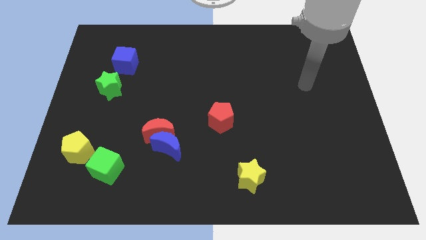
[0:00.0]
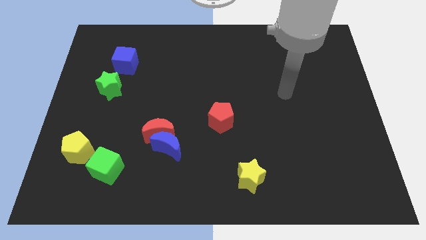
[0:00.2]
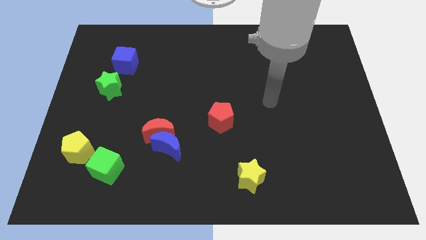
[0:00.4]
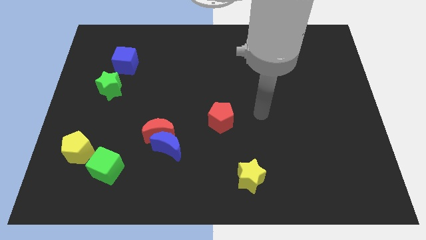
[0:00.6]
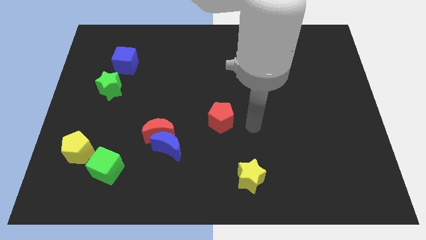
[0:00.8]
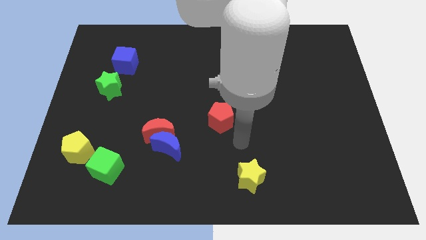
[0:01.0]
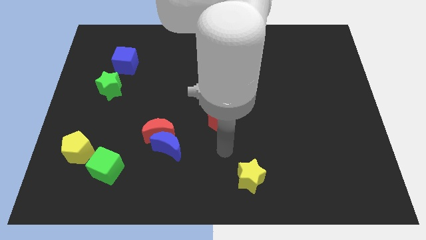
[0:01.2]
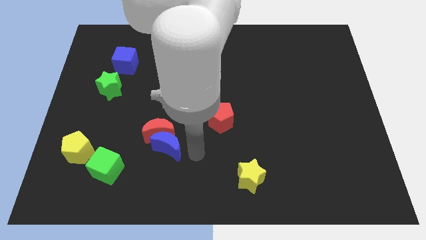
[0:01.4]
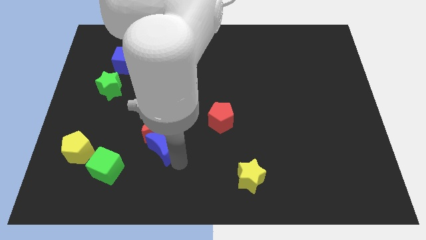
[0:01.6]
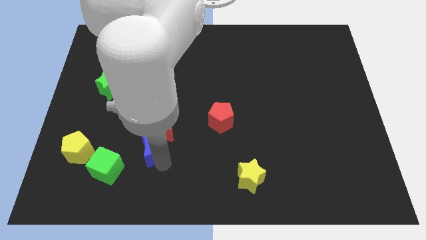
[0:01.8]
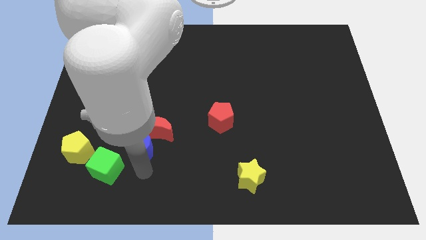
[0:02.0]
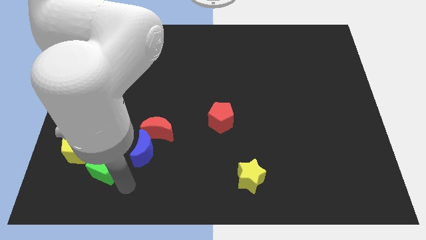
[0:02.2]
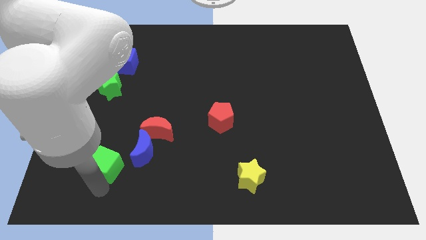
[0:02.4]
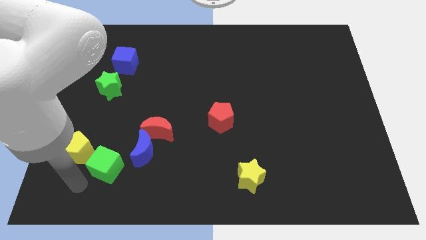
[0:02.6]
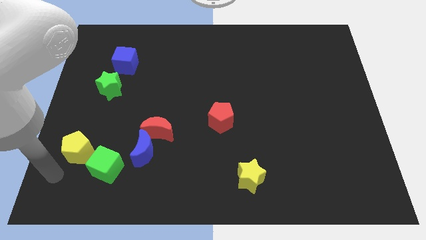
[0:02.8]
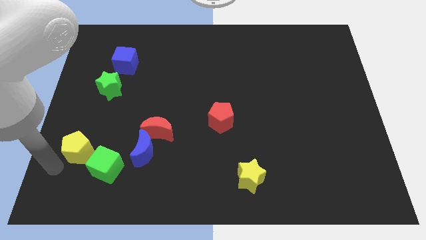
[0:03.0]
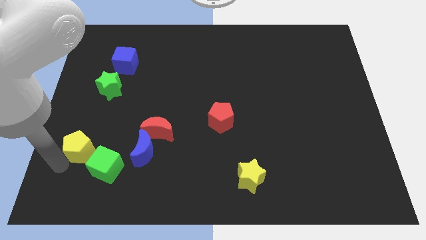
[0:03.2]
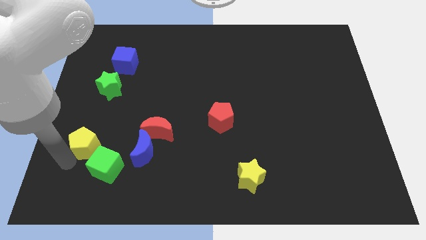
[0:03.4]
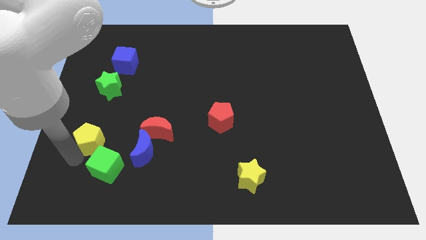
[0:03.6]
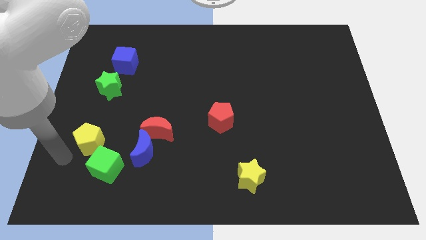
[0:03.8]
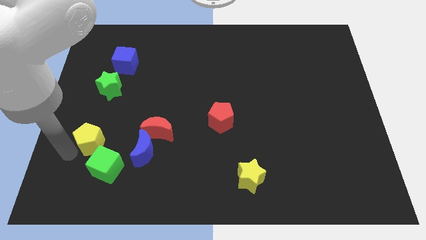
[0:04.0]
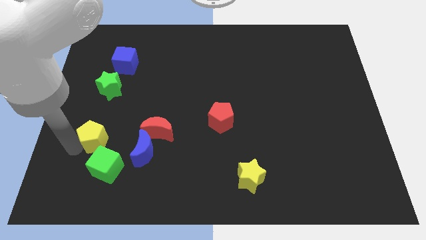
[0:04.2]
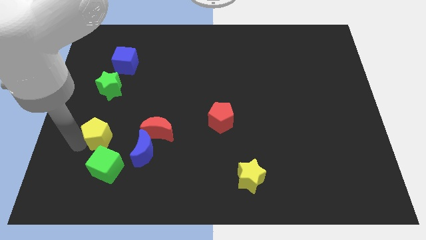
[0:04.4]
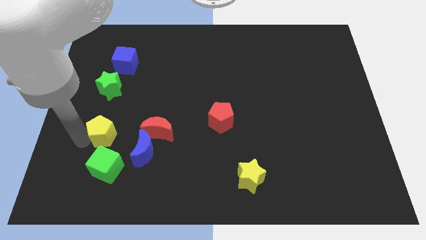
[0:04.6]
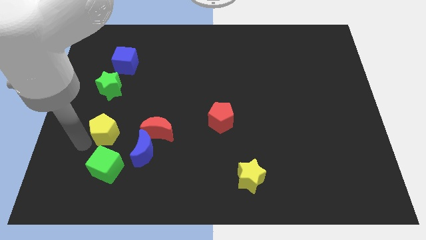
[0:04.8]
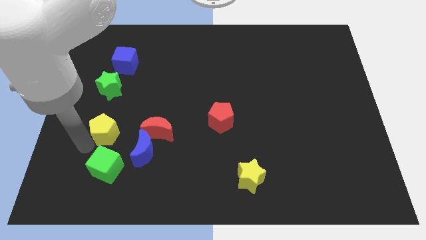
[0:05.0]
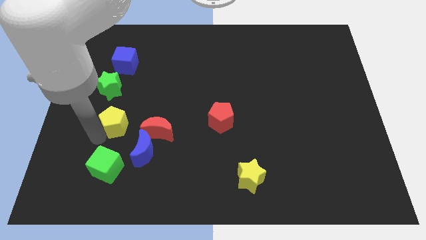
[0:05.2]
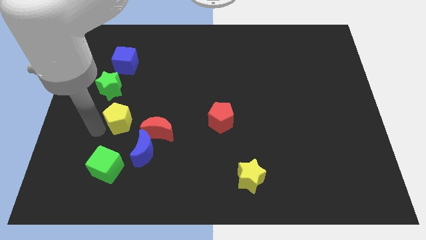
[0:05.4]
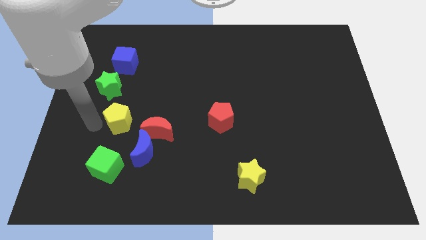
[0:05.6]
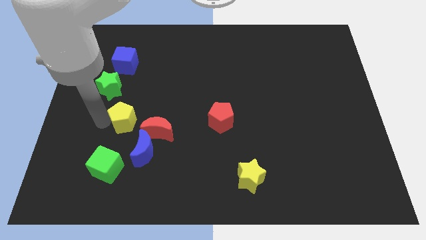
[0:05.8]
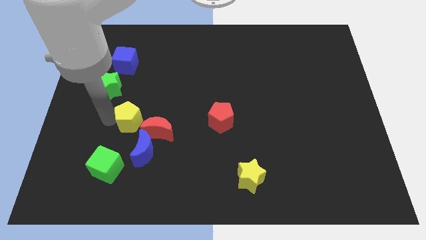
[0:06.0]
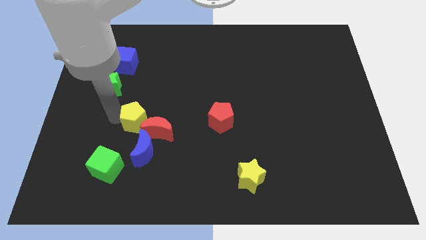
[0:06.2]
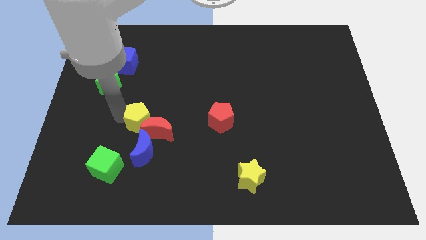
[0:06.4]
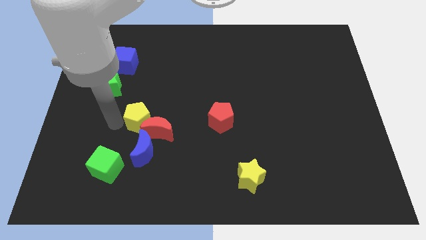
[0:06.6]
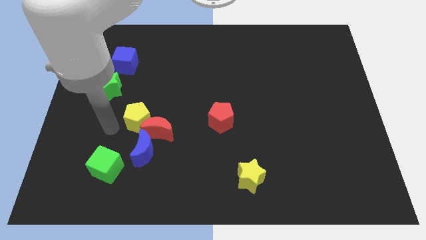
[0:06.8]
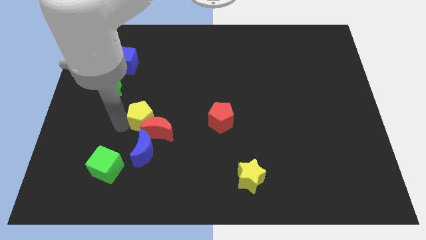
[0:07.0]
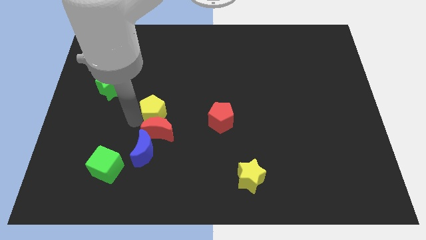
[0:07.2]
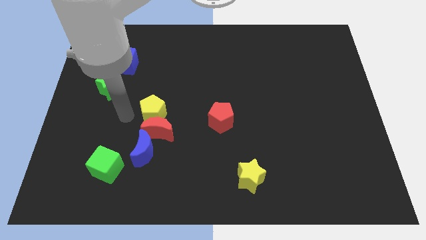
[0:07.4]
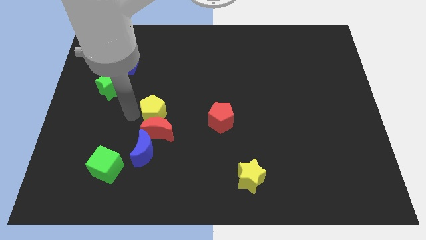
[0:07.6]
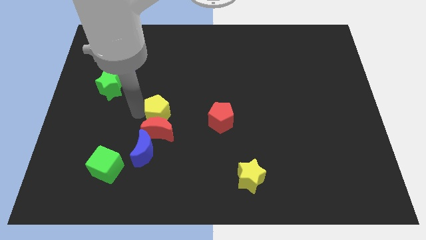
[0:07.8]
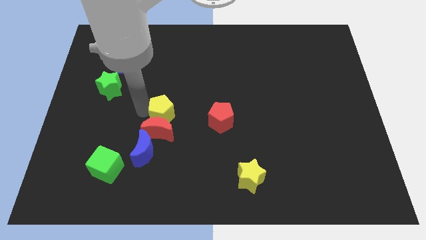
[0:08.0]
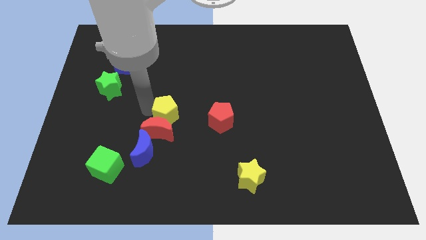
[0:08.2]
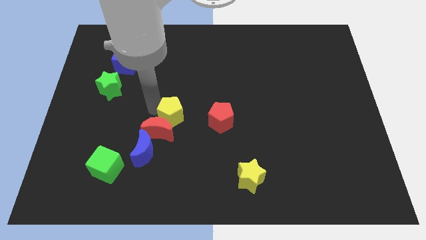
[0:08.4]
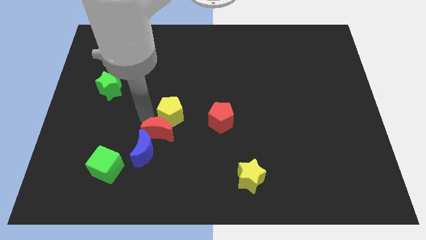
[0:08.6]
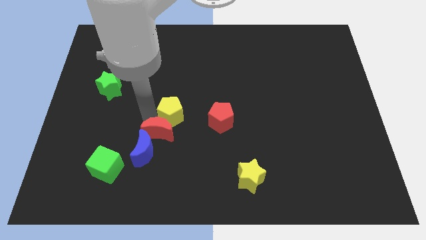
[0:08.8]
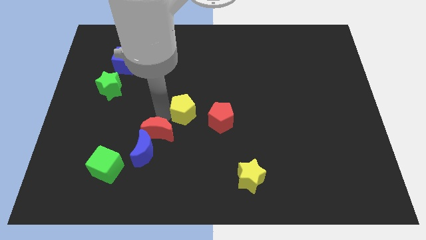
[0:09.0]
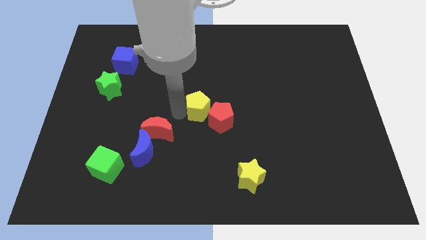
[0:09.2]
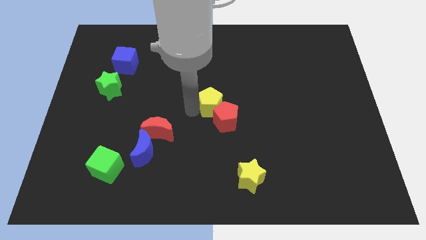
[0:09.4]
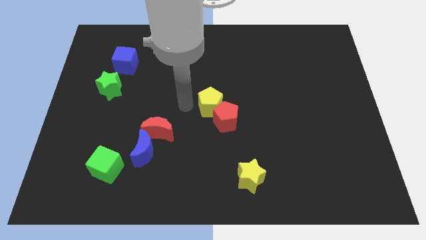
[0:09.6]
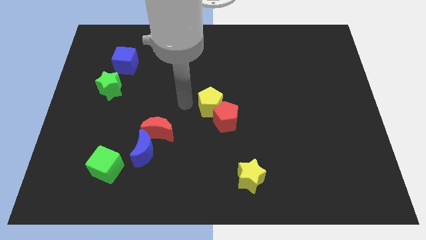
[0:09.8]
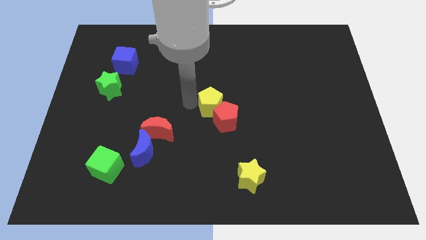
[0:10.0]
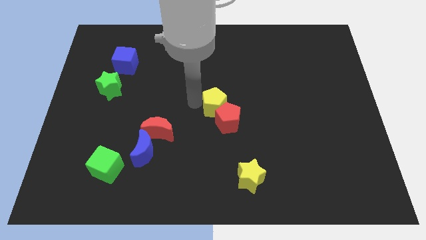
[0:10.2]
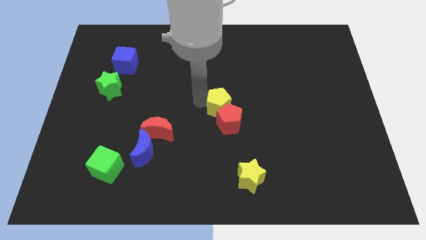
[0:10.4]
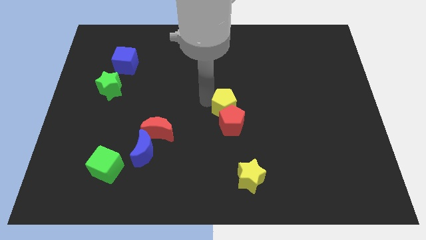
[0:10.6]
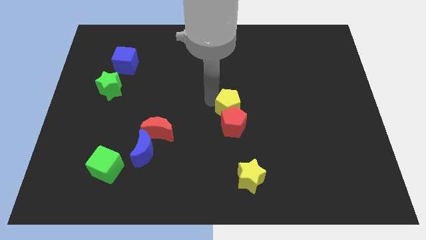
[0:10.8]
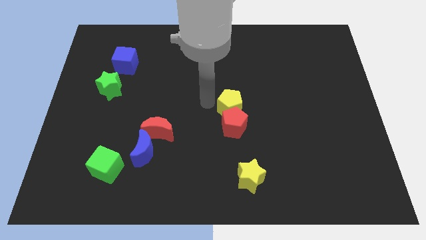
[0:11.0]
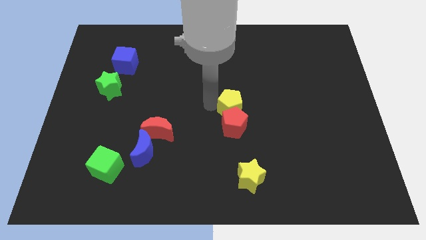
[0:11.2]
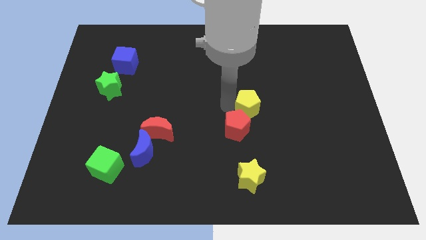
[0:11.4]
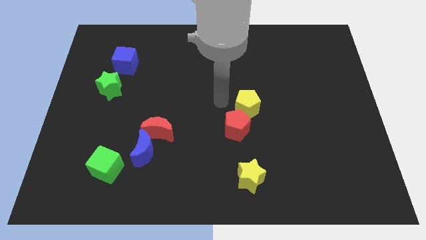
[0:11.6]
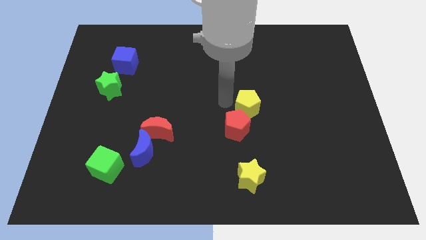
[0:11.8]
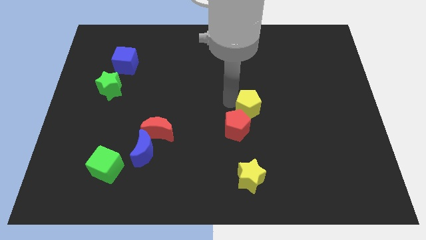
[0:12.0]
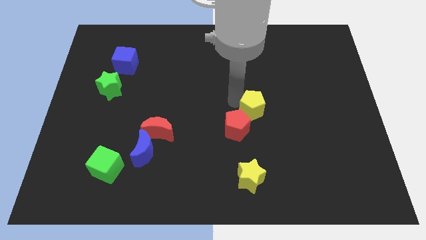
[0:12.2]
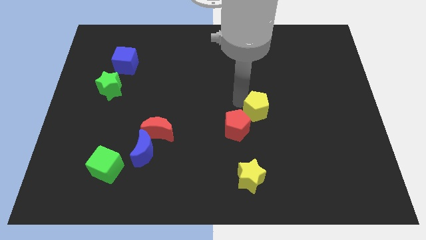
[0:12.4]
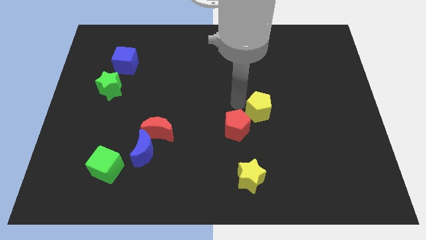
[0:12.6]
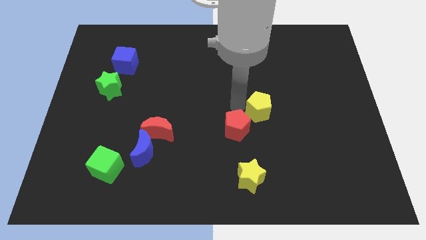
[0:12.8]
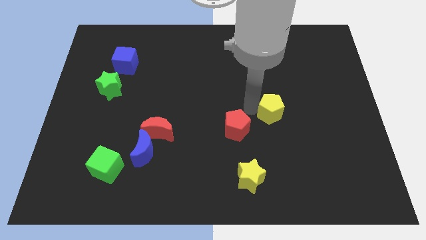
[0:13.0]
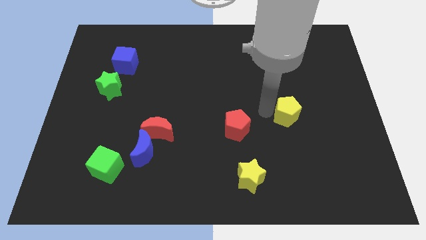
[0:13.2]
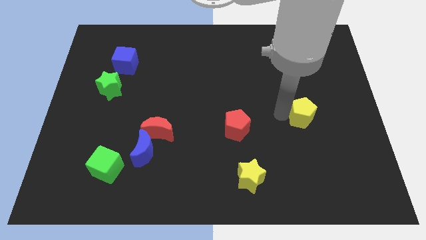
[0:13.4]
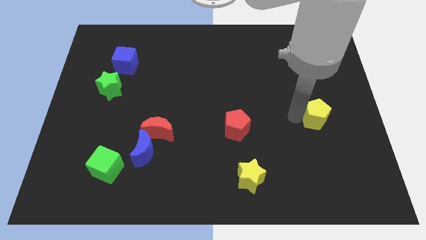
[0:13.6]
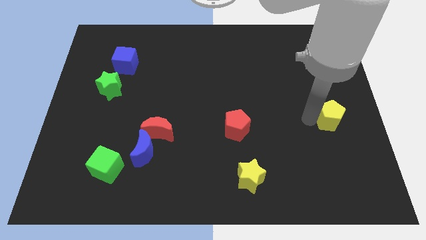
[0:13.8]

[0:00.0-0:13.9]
move the yellow pentagon to the center right
